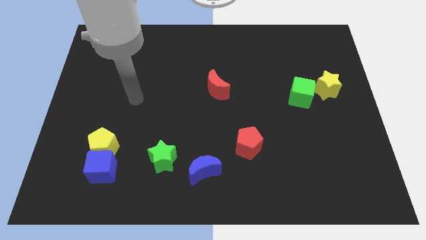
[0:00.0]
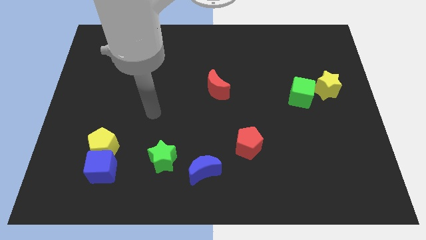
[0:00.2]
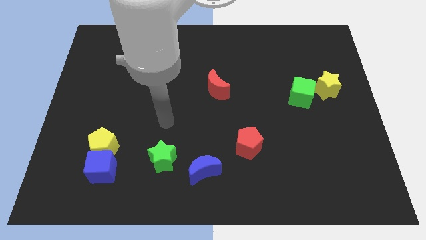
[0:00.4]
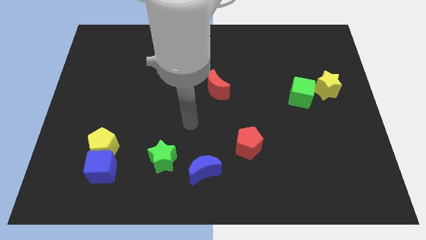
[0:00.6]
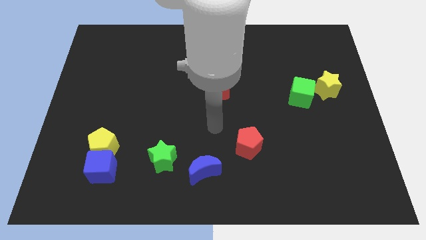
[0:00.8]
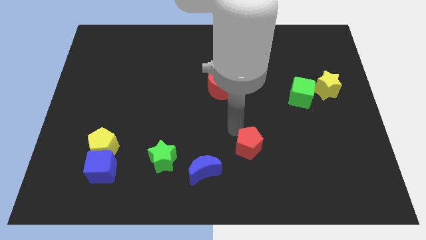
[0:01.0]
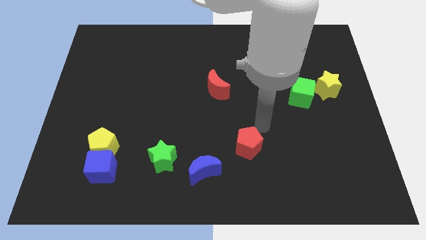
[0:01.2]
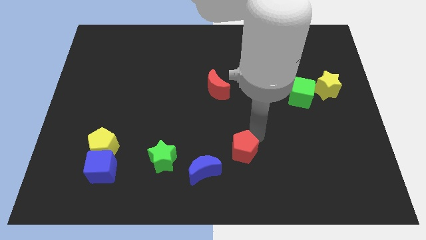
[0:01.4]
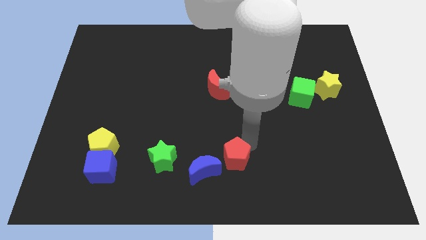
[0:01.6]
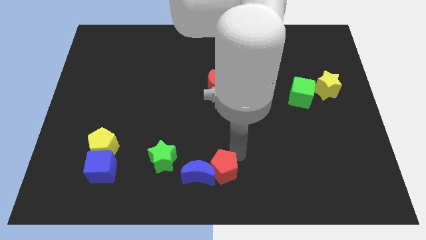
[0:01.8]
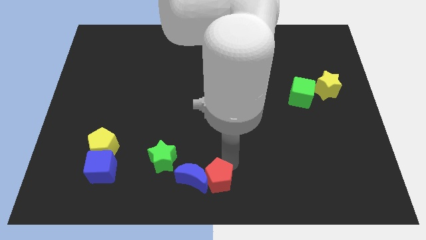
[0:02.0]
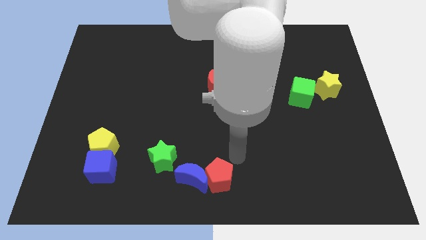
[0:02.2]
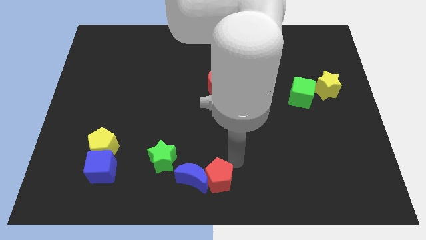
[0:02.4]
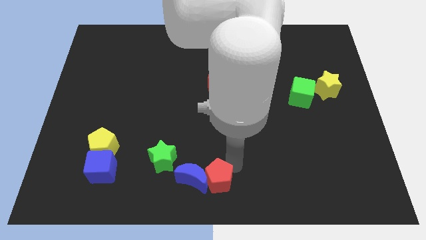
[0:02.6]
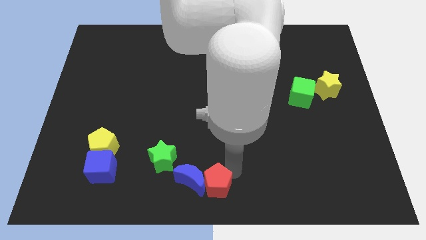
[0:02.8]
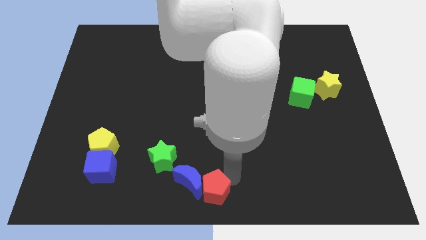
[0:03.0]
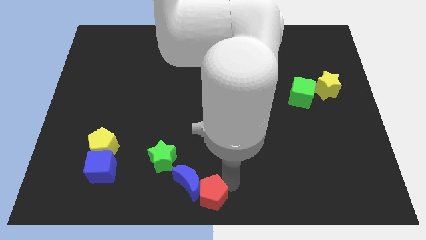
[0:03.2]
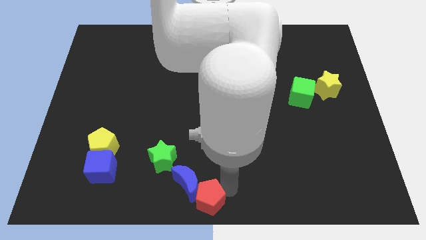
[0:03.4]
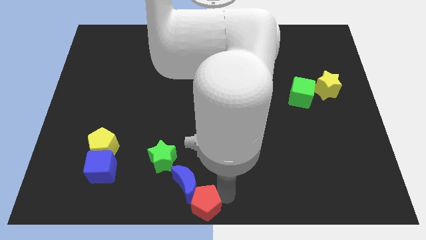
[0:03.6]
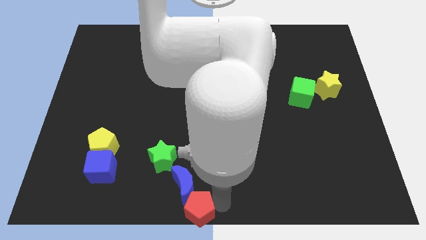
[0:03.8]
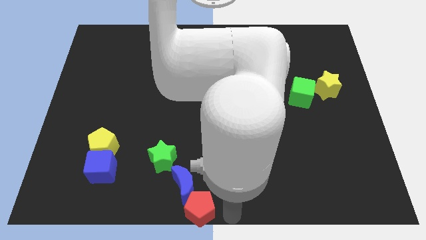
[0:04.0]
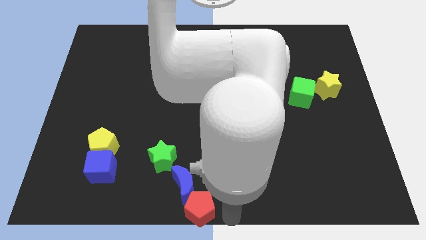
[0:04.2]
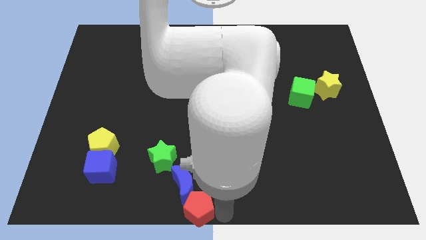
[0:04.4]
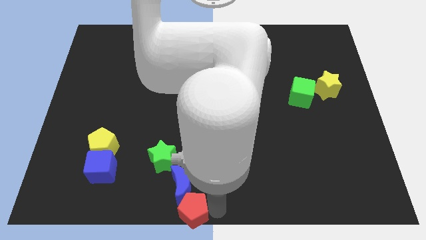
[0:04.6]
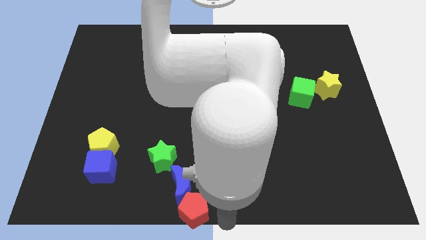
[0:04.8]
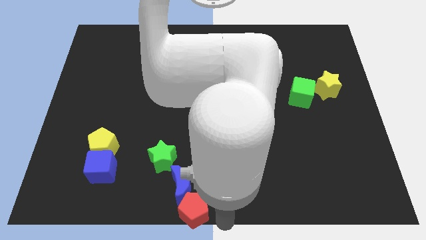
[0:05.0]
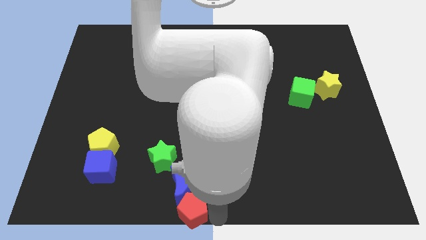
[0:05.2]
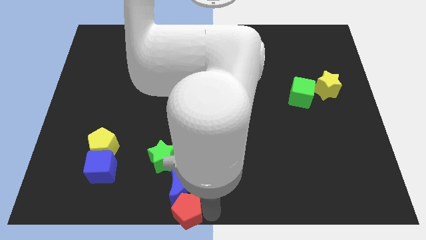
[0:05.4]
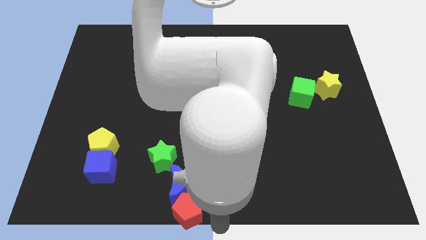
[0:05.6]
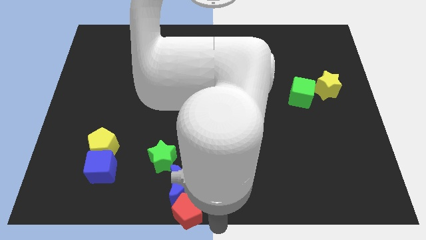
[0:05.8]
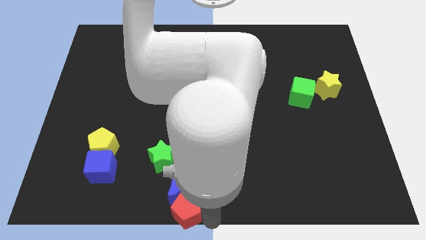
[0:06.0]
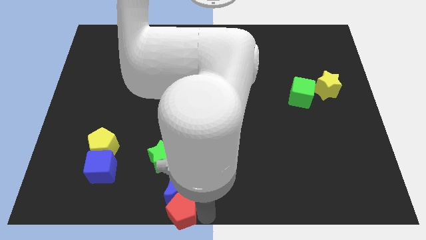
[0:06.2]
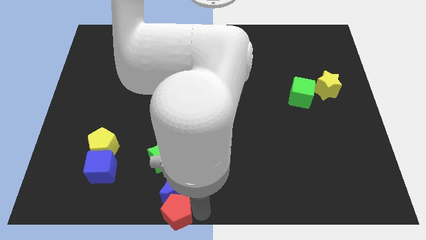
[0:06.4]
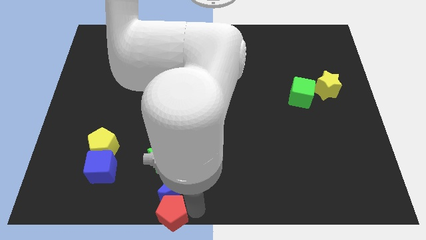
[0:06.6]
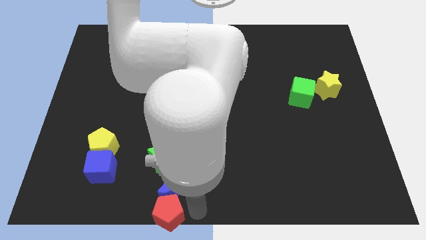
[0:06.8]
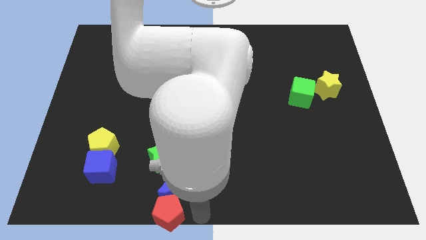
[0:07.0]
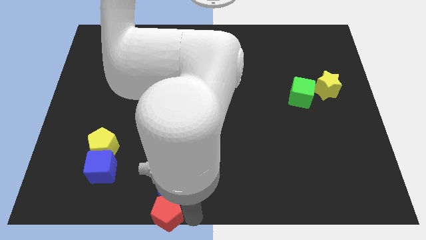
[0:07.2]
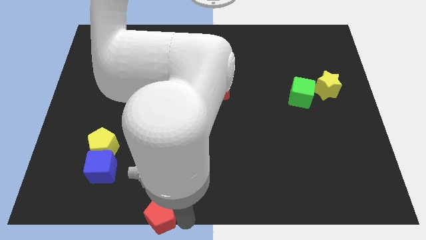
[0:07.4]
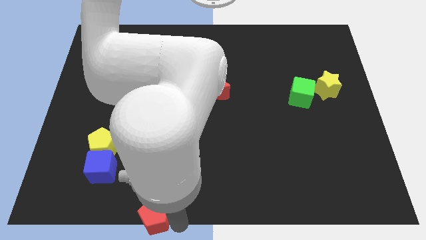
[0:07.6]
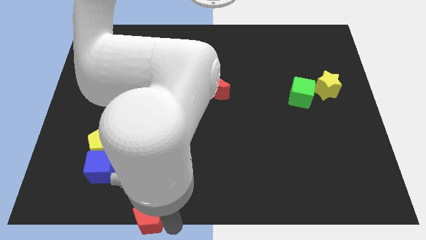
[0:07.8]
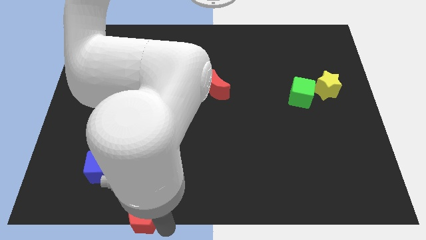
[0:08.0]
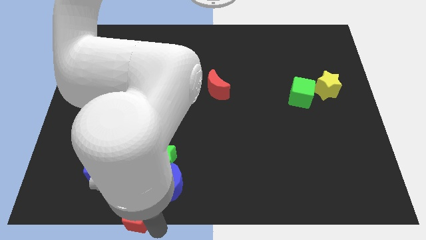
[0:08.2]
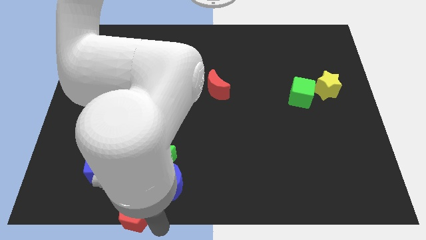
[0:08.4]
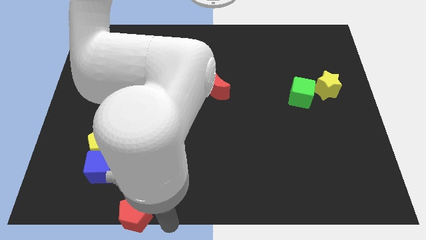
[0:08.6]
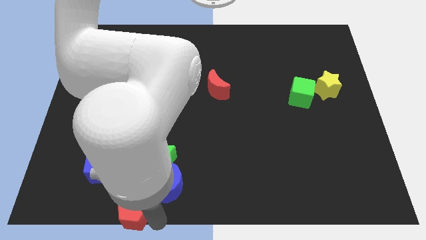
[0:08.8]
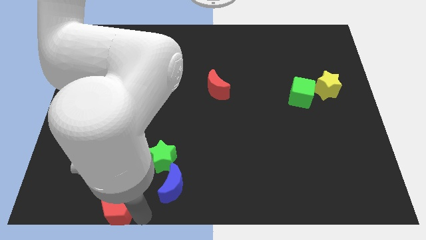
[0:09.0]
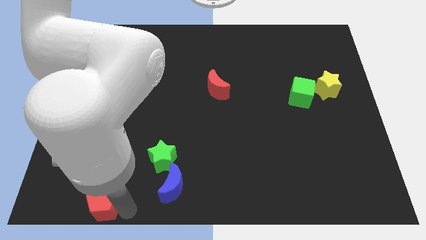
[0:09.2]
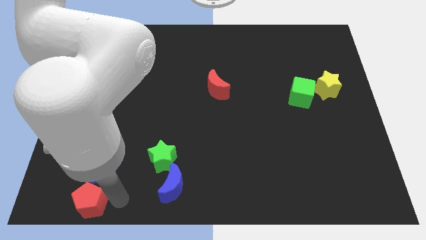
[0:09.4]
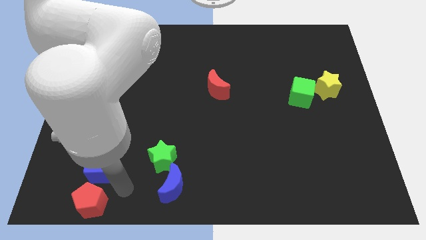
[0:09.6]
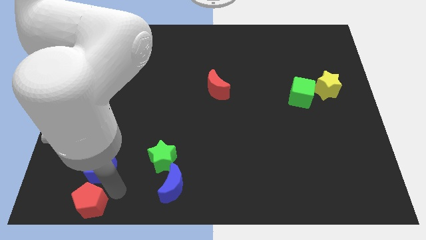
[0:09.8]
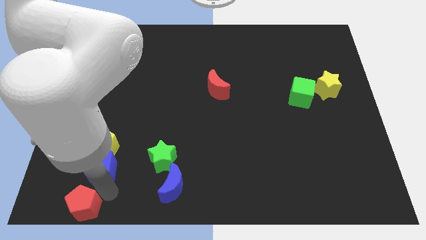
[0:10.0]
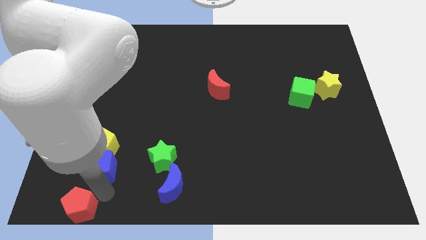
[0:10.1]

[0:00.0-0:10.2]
push the red pentagon to the lower left corner

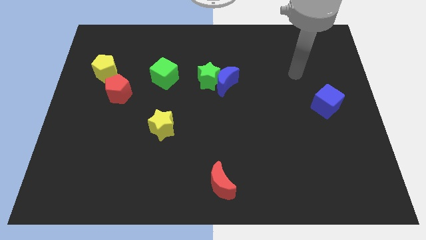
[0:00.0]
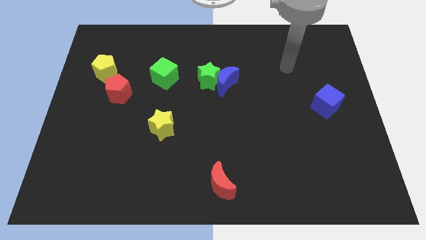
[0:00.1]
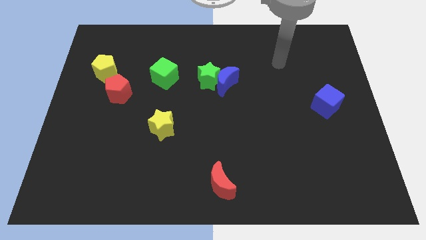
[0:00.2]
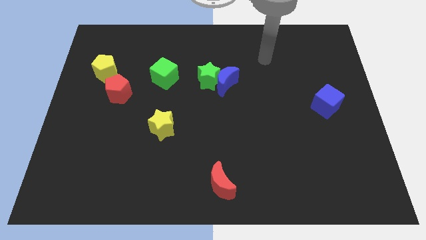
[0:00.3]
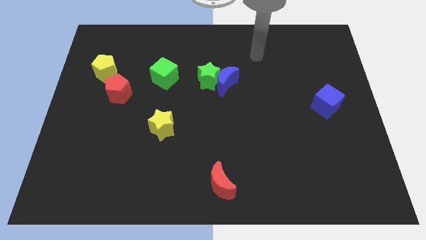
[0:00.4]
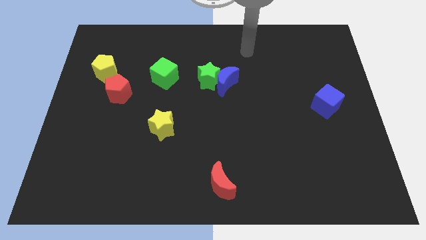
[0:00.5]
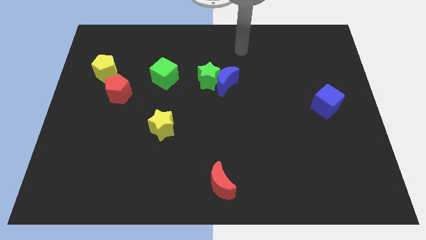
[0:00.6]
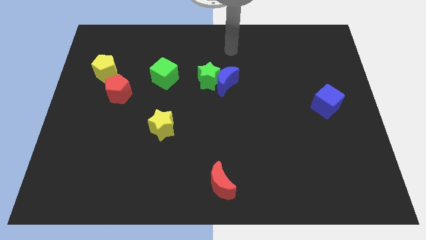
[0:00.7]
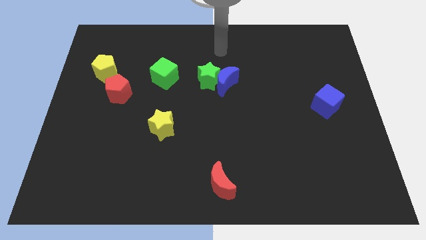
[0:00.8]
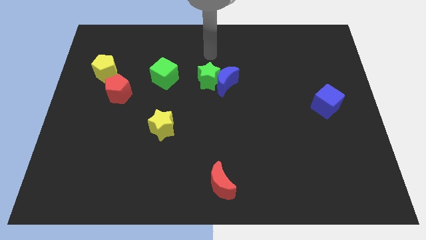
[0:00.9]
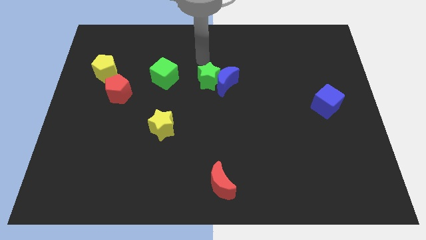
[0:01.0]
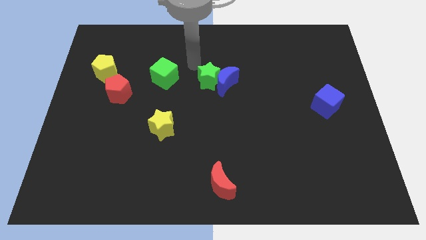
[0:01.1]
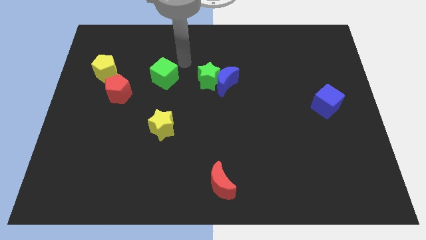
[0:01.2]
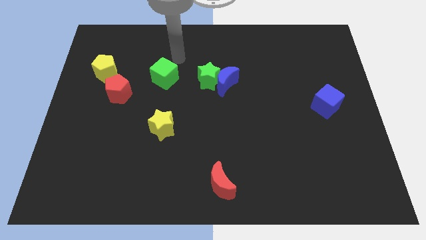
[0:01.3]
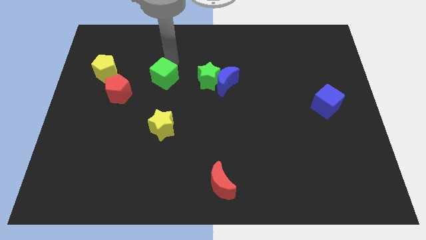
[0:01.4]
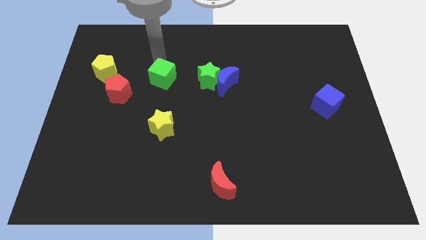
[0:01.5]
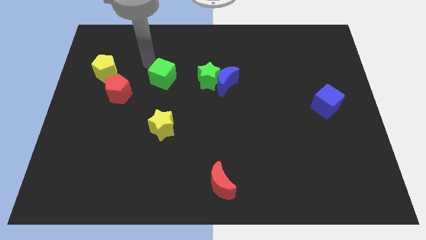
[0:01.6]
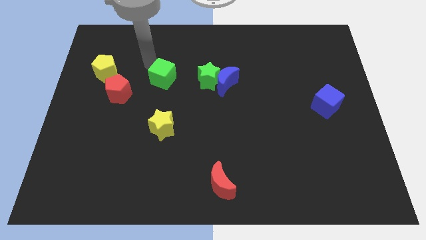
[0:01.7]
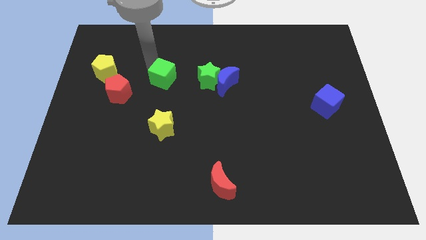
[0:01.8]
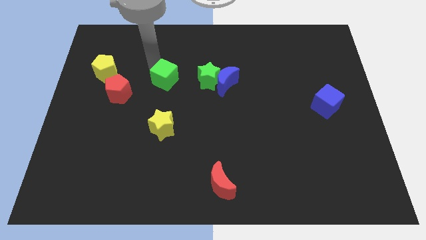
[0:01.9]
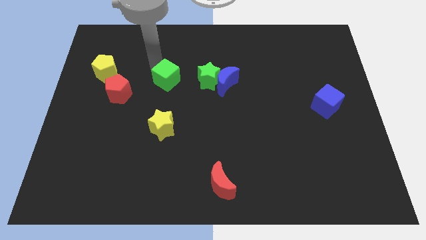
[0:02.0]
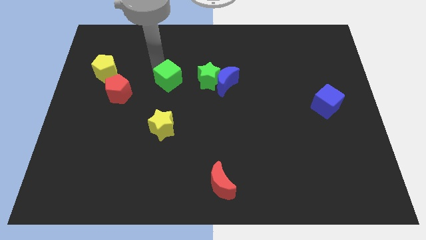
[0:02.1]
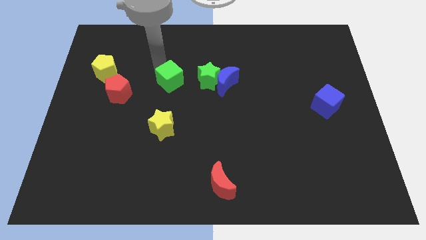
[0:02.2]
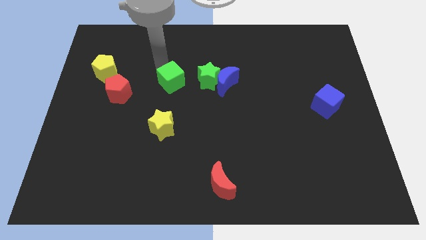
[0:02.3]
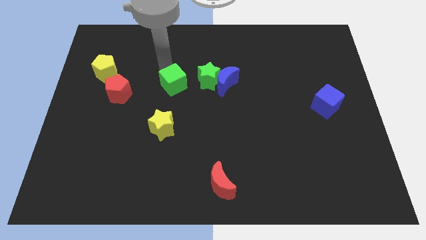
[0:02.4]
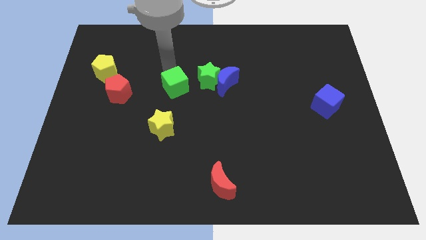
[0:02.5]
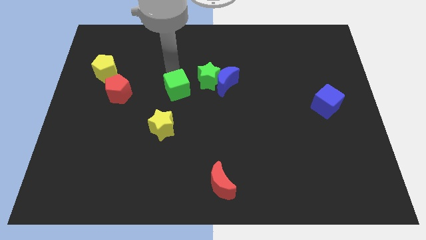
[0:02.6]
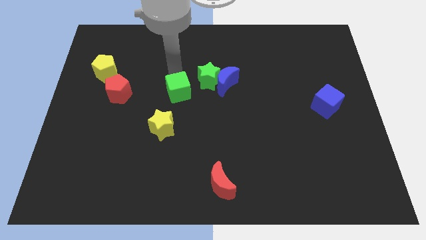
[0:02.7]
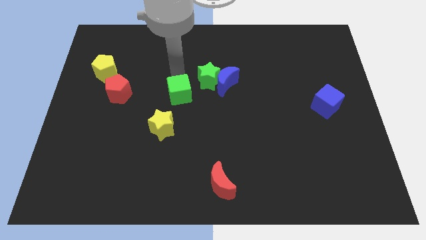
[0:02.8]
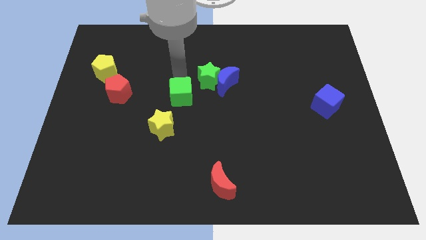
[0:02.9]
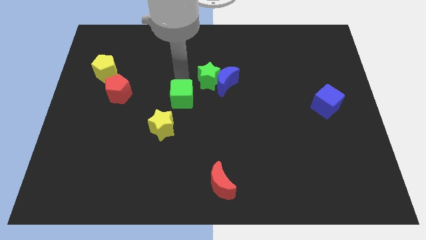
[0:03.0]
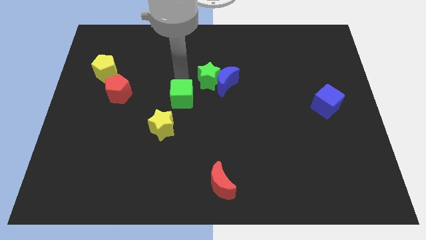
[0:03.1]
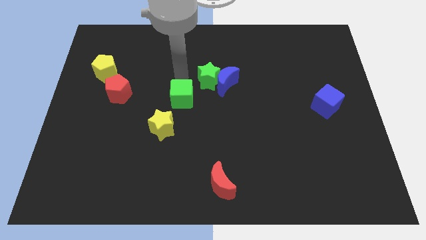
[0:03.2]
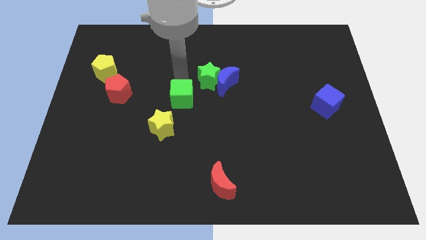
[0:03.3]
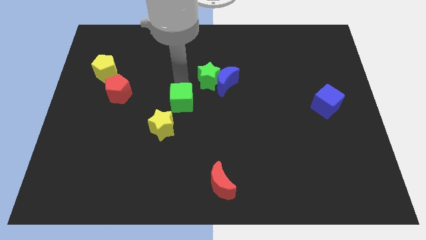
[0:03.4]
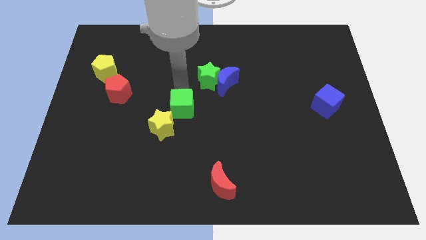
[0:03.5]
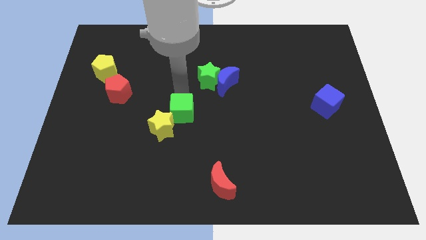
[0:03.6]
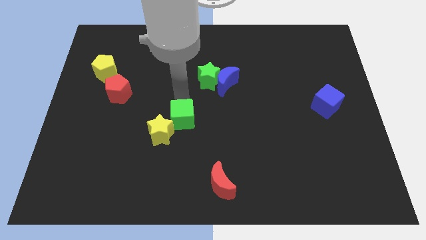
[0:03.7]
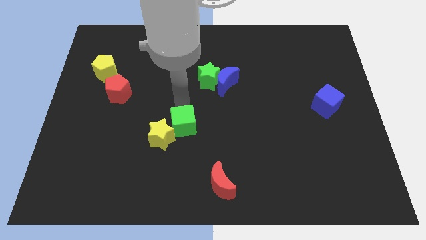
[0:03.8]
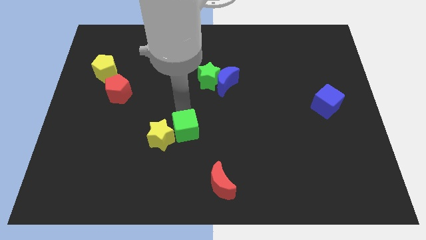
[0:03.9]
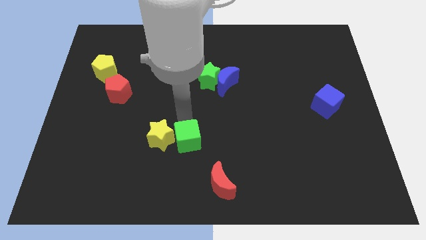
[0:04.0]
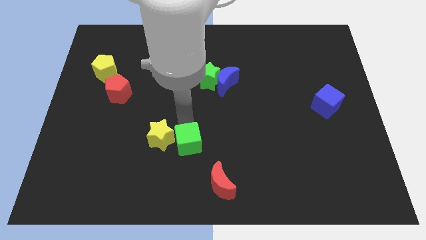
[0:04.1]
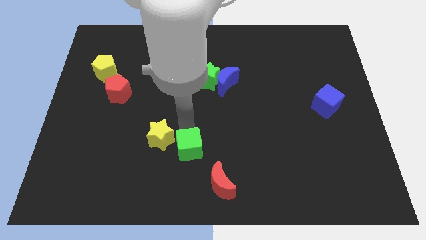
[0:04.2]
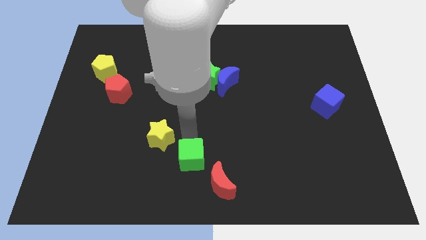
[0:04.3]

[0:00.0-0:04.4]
put the green cube to the bottom
